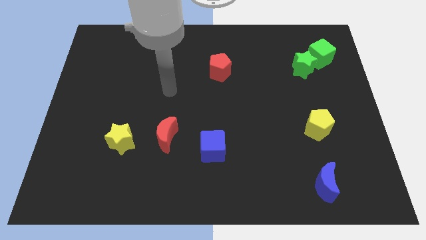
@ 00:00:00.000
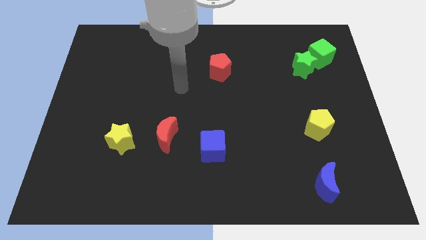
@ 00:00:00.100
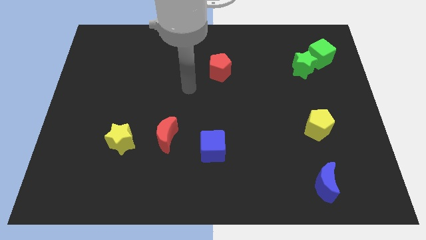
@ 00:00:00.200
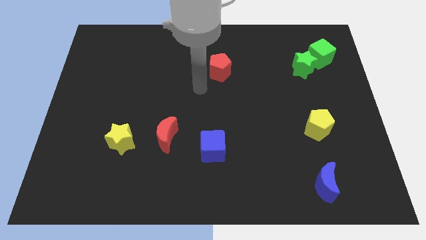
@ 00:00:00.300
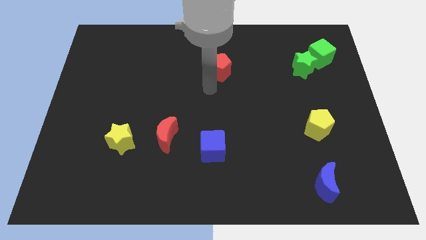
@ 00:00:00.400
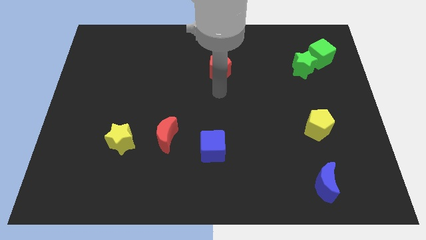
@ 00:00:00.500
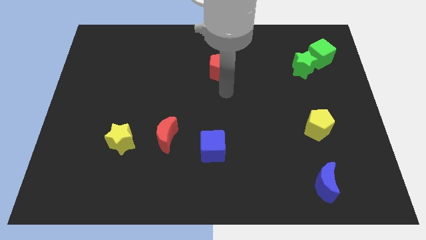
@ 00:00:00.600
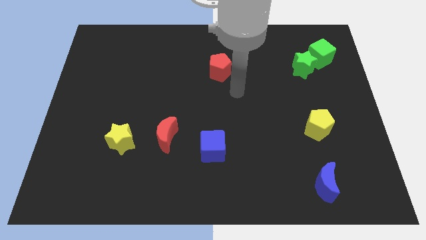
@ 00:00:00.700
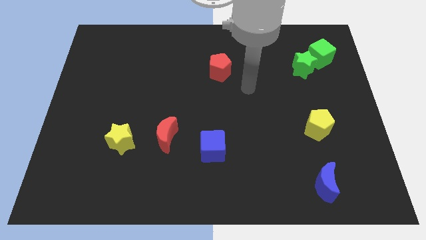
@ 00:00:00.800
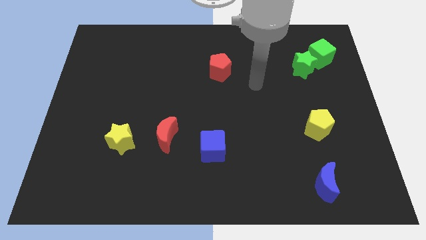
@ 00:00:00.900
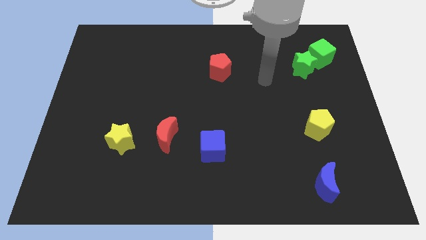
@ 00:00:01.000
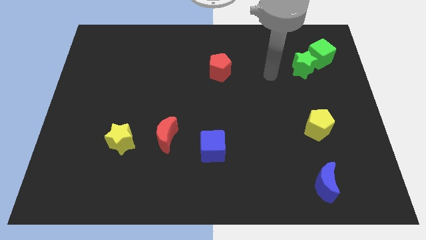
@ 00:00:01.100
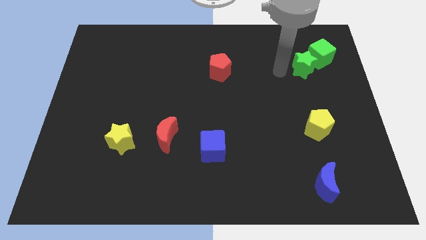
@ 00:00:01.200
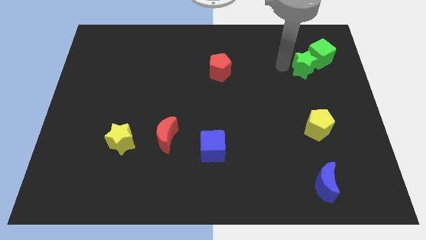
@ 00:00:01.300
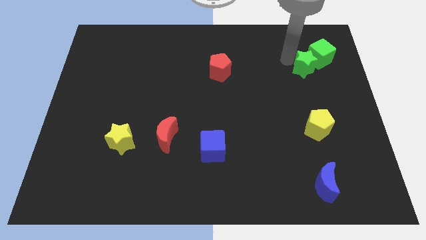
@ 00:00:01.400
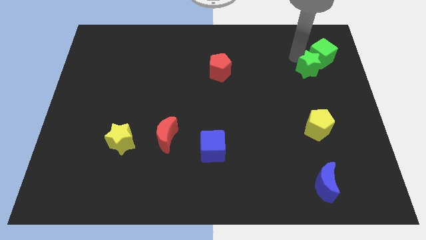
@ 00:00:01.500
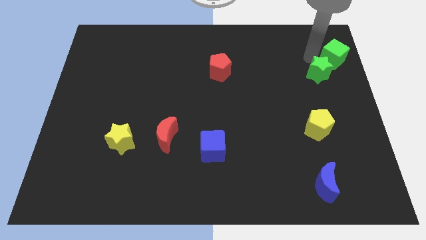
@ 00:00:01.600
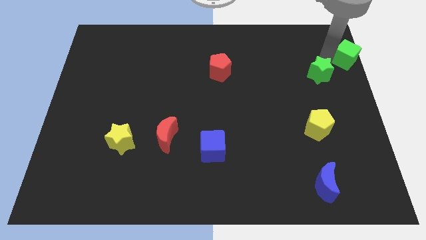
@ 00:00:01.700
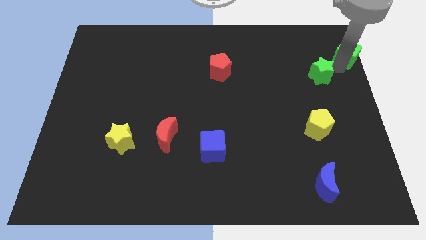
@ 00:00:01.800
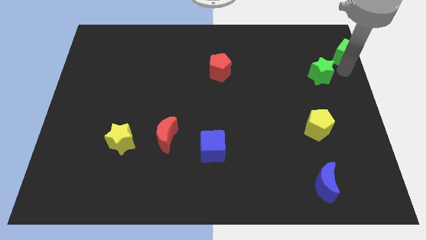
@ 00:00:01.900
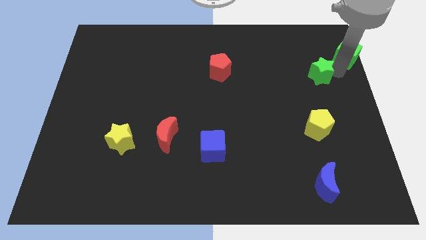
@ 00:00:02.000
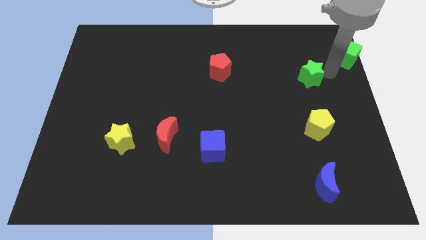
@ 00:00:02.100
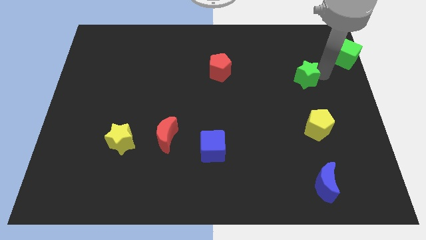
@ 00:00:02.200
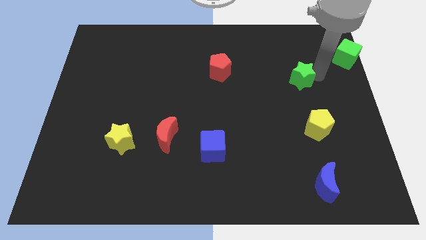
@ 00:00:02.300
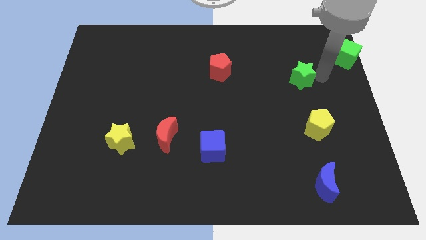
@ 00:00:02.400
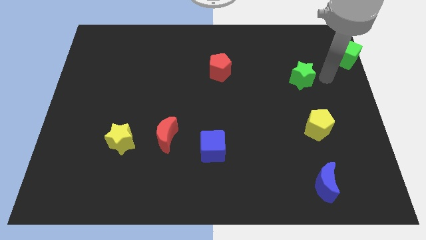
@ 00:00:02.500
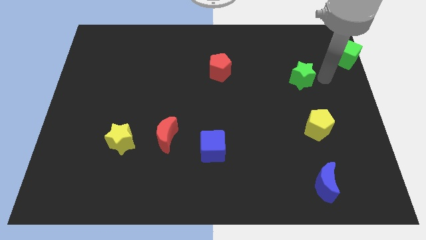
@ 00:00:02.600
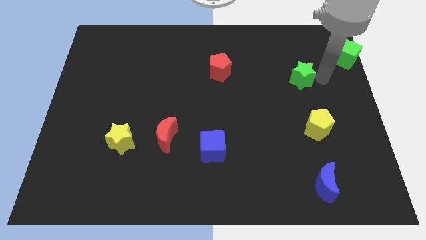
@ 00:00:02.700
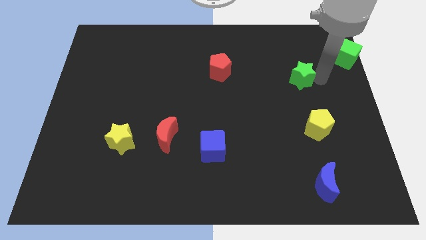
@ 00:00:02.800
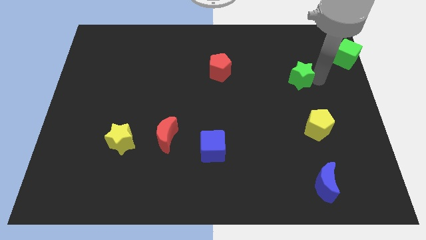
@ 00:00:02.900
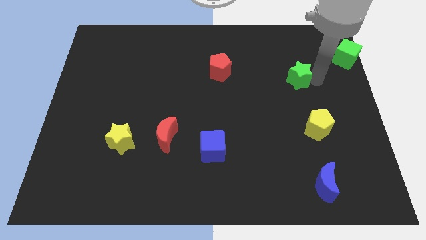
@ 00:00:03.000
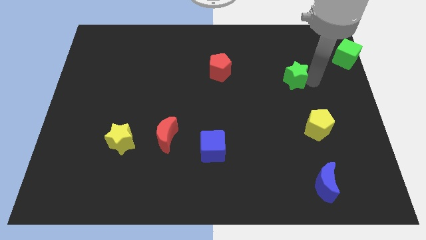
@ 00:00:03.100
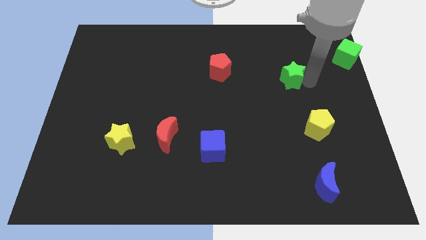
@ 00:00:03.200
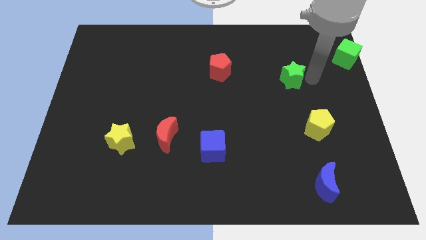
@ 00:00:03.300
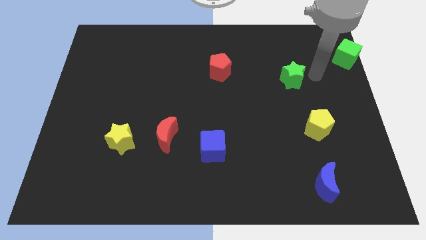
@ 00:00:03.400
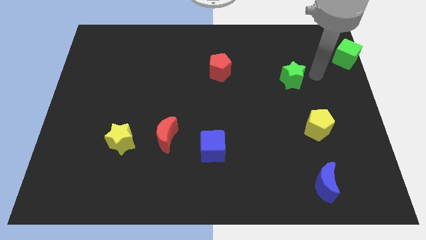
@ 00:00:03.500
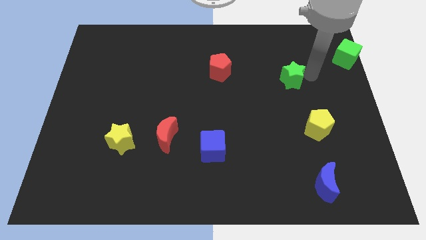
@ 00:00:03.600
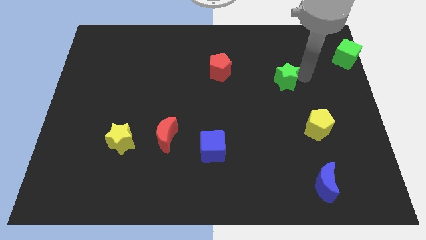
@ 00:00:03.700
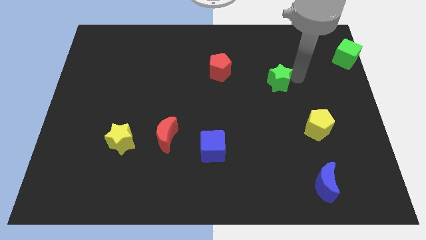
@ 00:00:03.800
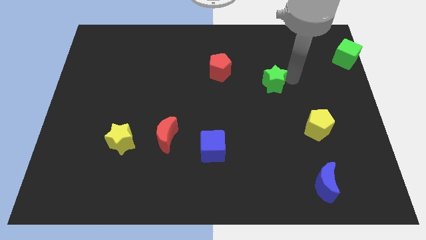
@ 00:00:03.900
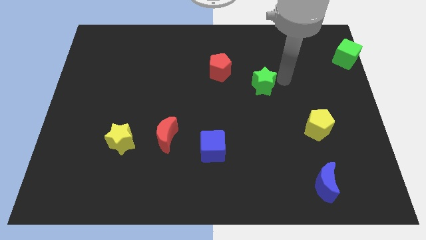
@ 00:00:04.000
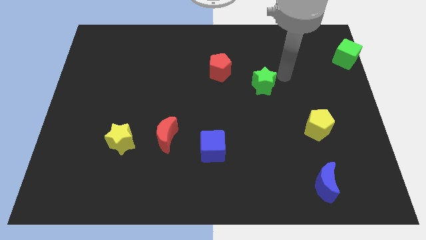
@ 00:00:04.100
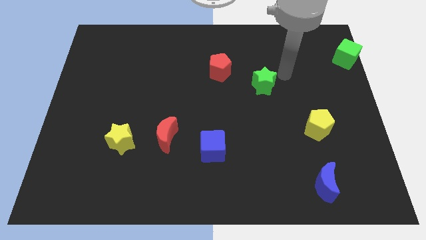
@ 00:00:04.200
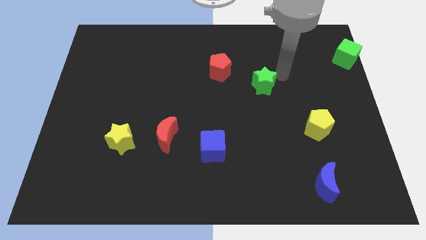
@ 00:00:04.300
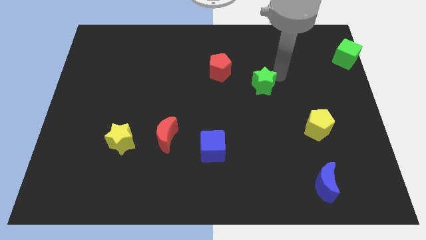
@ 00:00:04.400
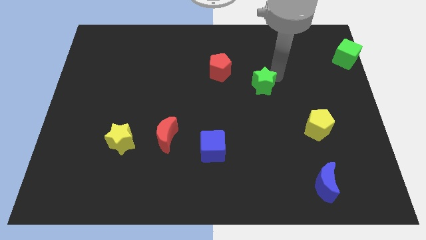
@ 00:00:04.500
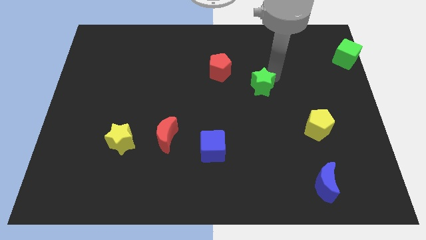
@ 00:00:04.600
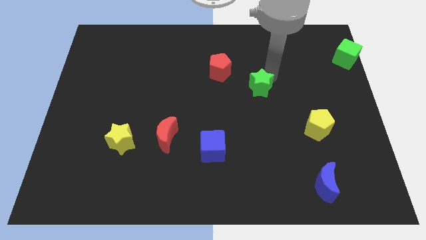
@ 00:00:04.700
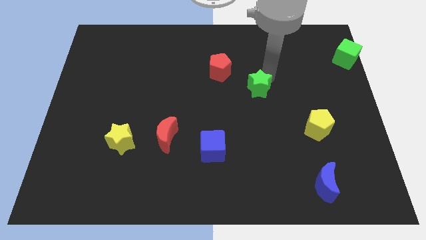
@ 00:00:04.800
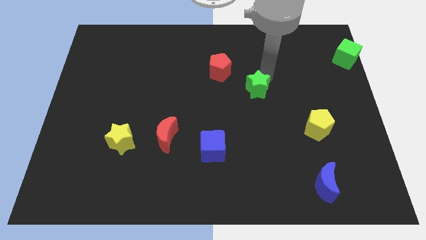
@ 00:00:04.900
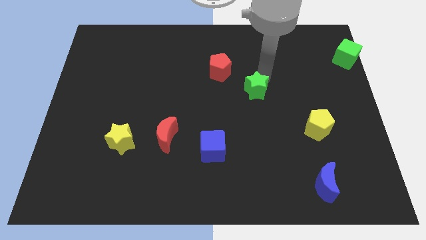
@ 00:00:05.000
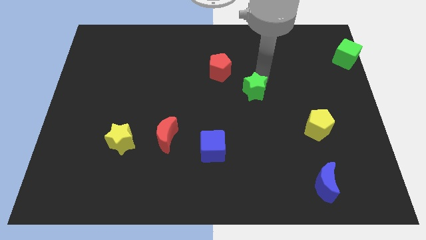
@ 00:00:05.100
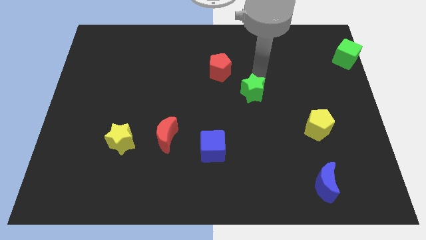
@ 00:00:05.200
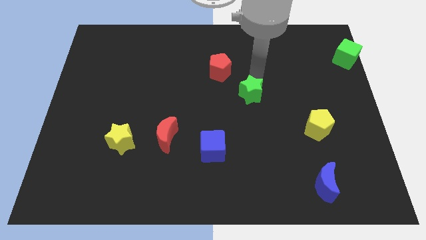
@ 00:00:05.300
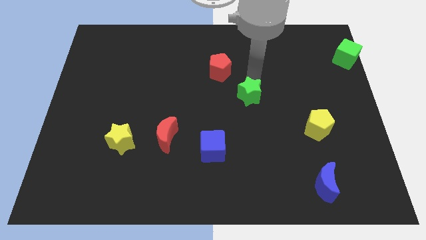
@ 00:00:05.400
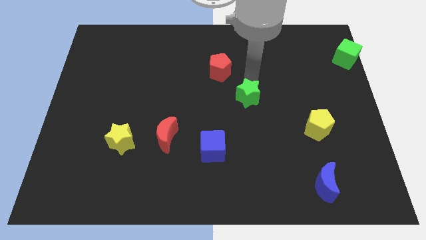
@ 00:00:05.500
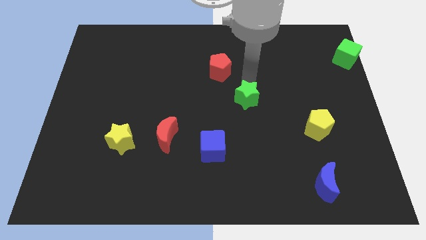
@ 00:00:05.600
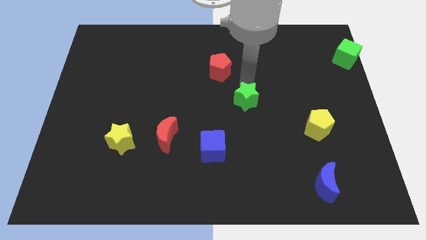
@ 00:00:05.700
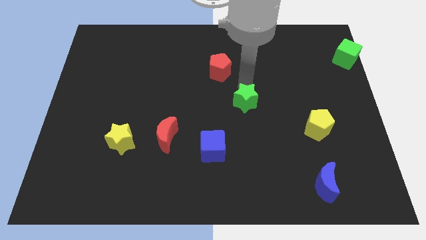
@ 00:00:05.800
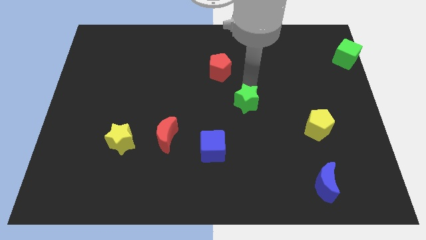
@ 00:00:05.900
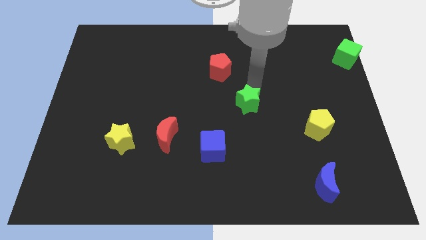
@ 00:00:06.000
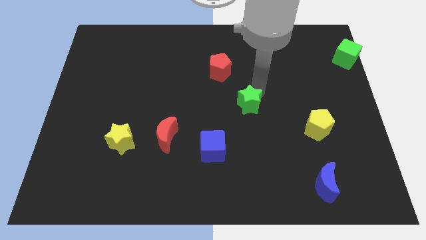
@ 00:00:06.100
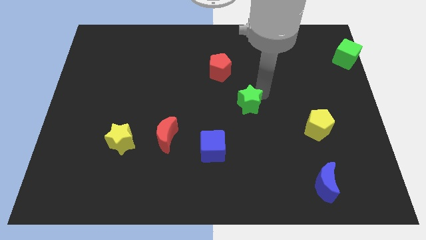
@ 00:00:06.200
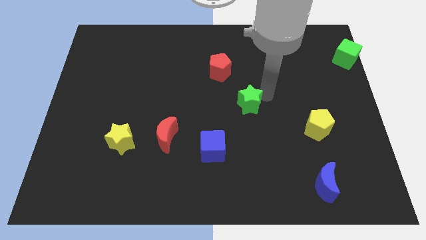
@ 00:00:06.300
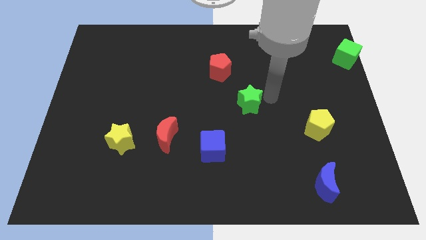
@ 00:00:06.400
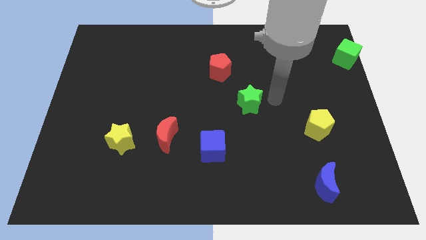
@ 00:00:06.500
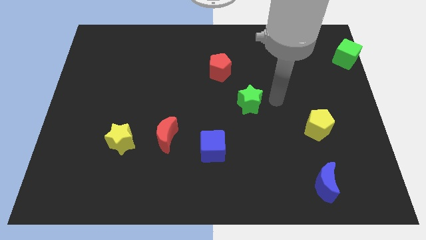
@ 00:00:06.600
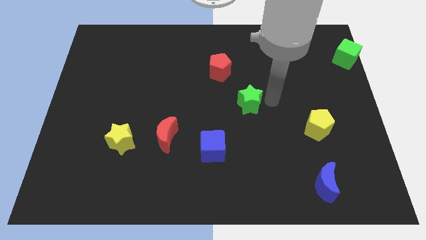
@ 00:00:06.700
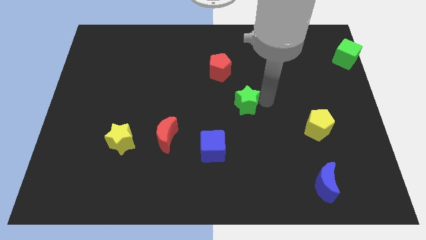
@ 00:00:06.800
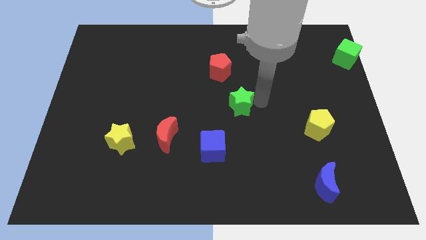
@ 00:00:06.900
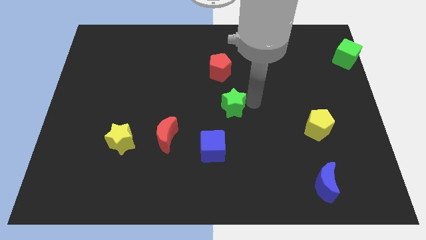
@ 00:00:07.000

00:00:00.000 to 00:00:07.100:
push the green star to the top of the blue cube

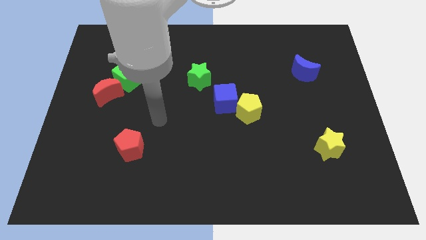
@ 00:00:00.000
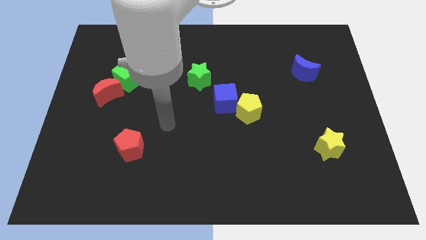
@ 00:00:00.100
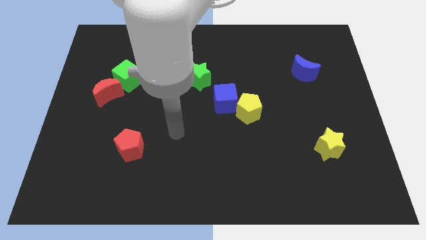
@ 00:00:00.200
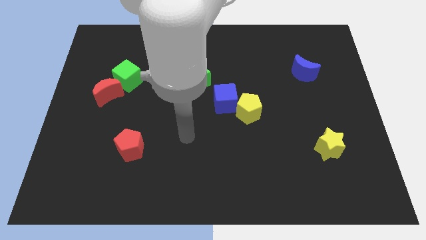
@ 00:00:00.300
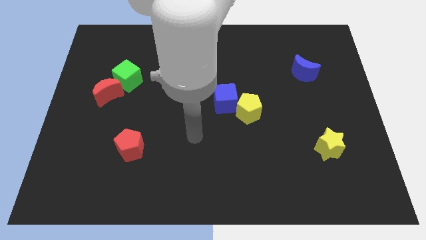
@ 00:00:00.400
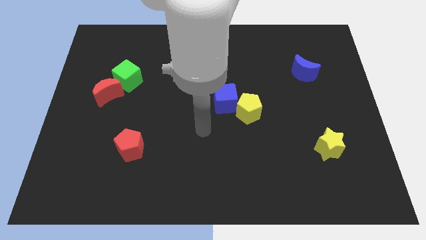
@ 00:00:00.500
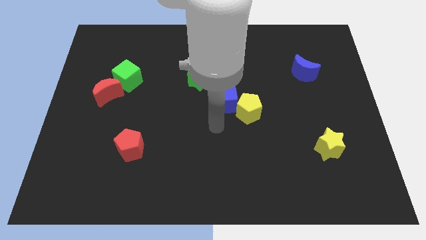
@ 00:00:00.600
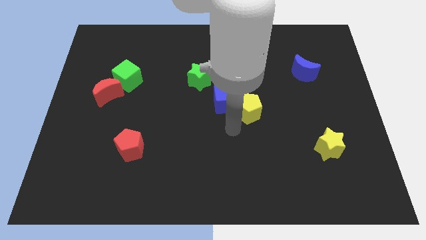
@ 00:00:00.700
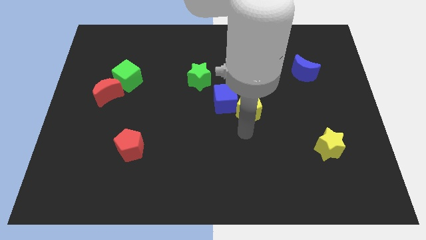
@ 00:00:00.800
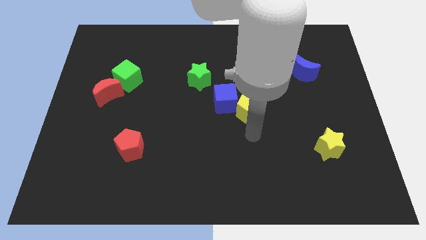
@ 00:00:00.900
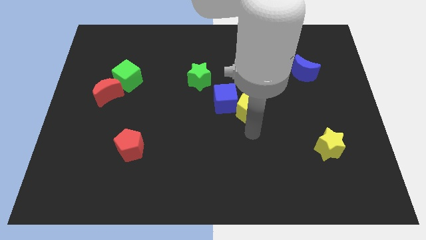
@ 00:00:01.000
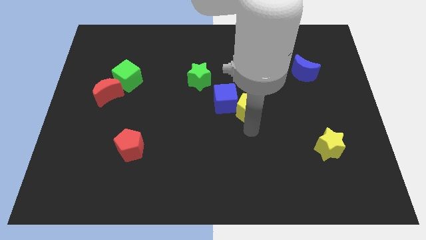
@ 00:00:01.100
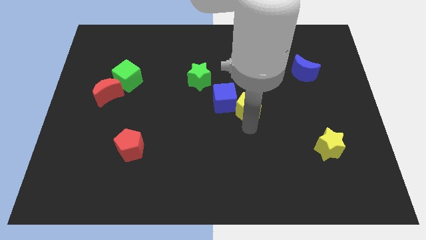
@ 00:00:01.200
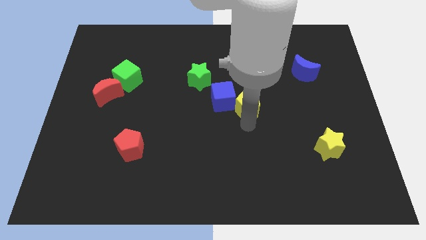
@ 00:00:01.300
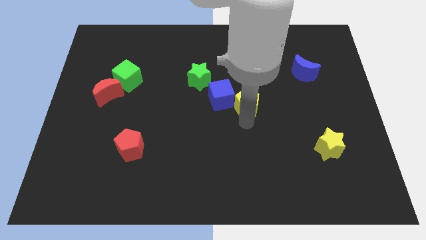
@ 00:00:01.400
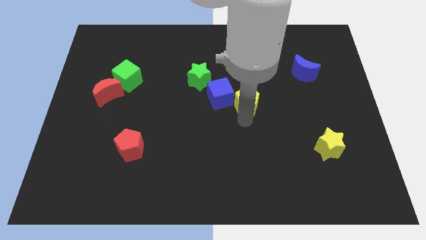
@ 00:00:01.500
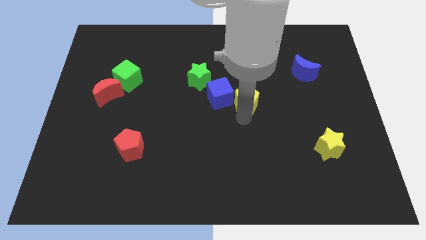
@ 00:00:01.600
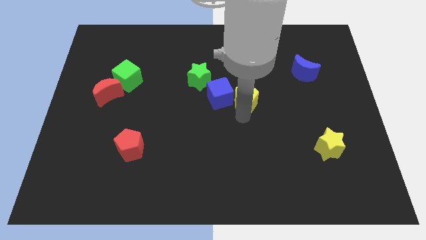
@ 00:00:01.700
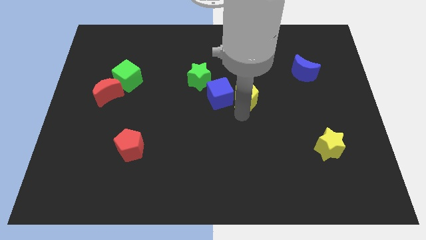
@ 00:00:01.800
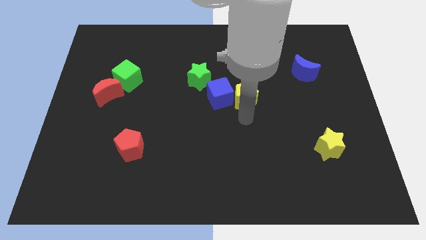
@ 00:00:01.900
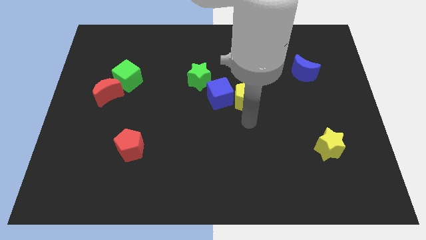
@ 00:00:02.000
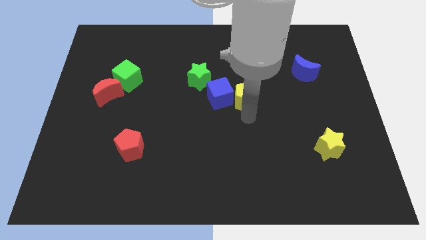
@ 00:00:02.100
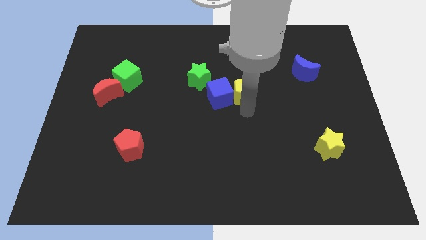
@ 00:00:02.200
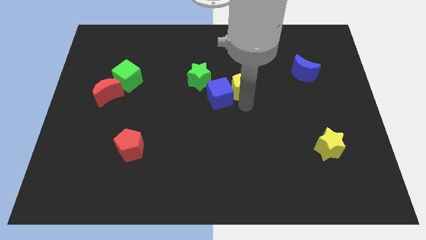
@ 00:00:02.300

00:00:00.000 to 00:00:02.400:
push the yellow pentagon to the right of the green star
